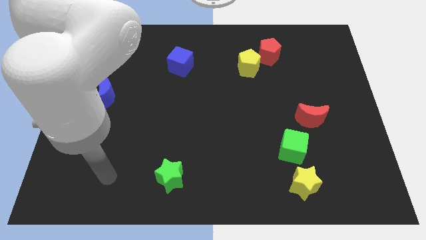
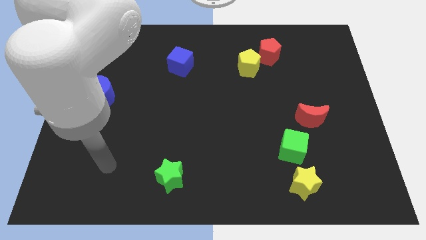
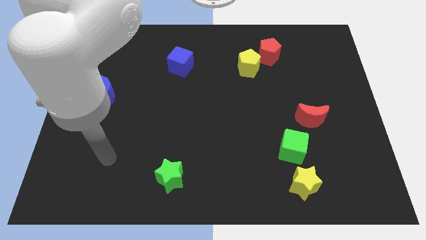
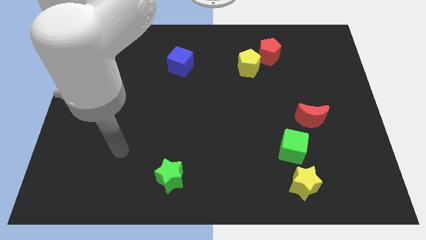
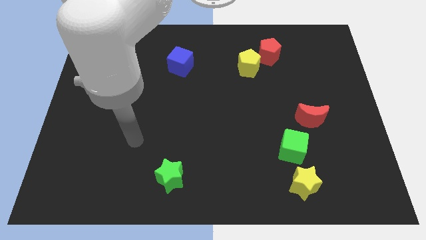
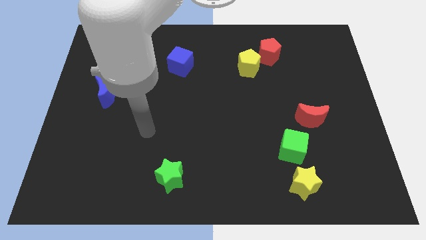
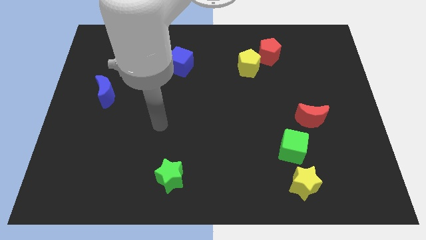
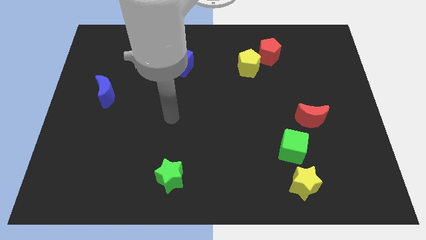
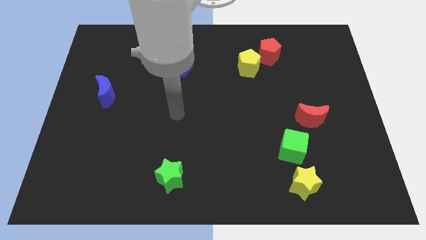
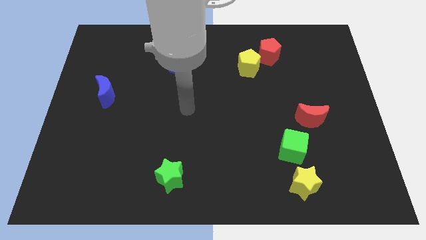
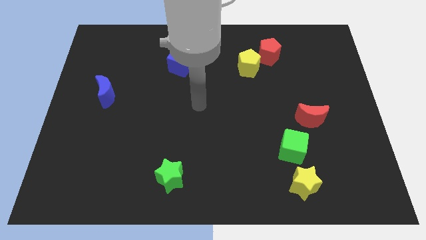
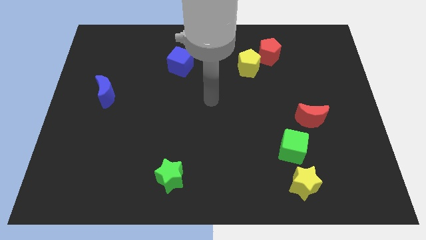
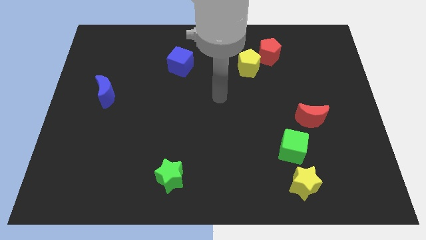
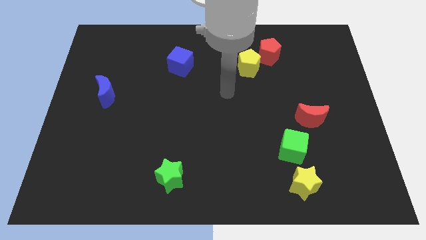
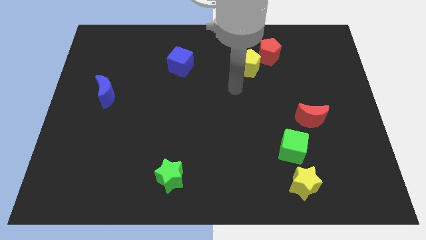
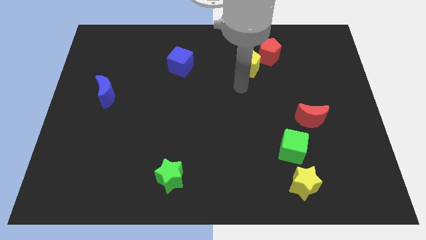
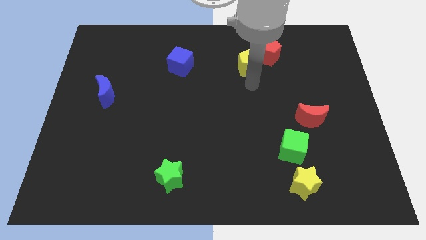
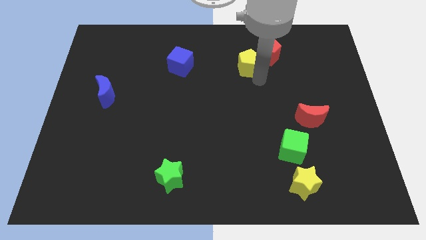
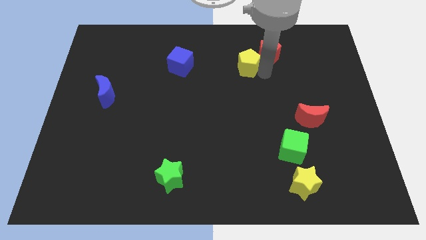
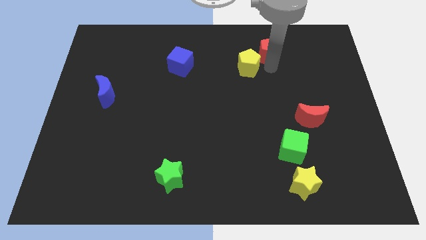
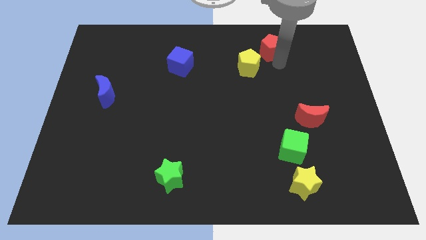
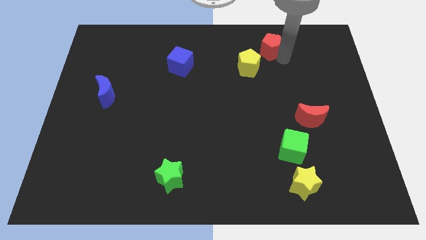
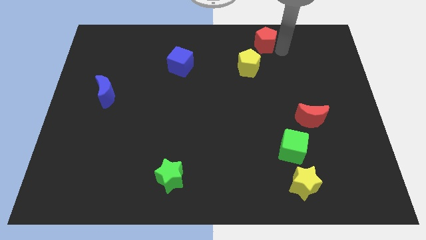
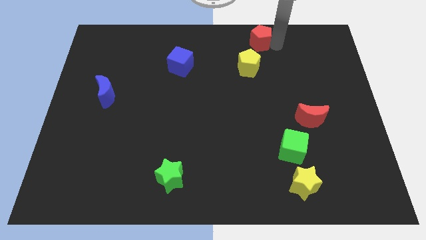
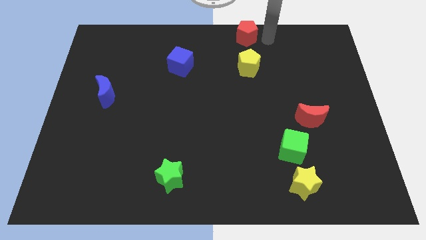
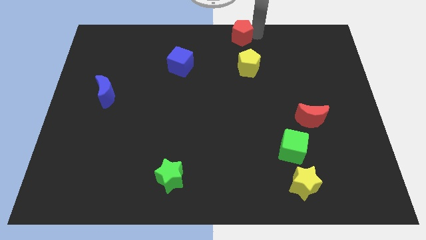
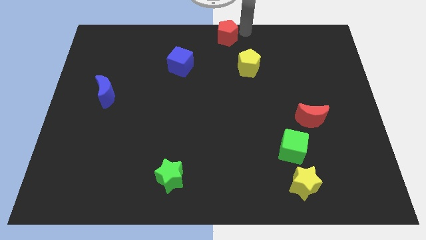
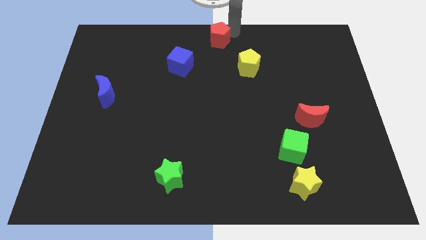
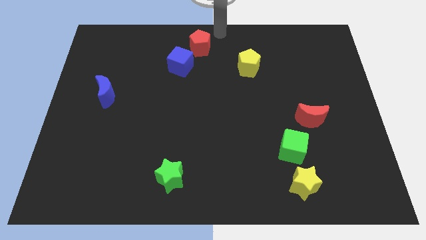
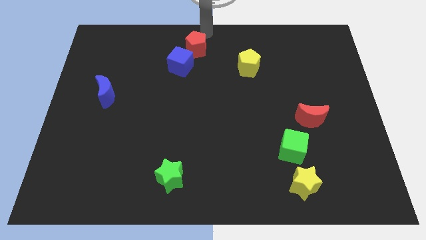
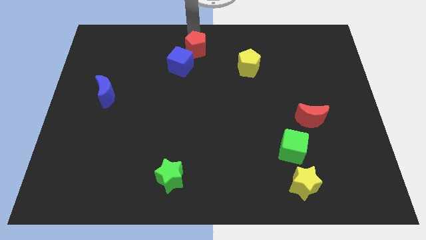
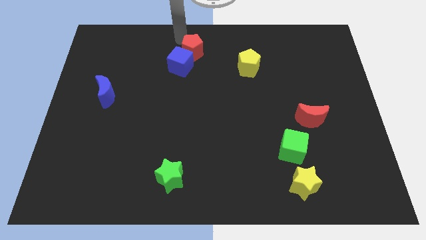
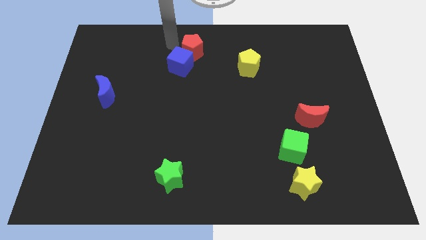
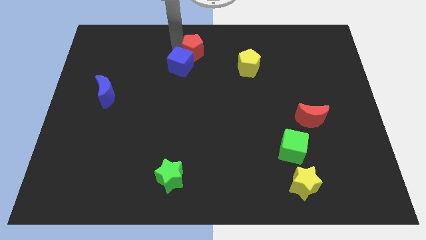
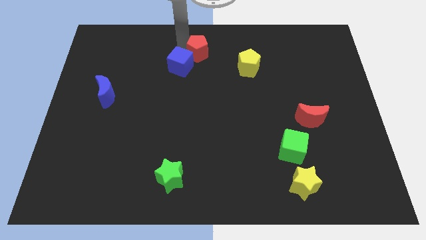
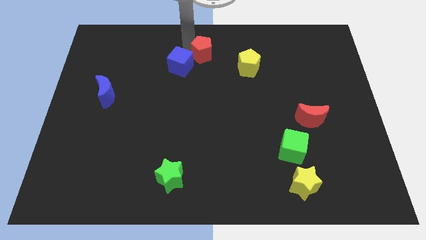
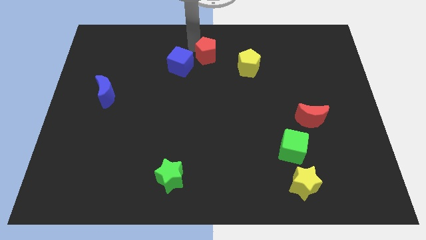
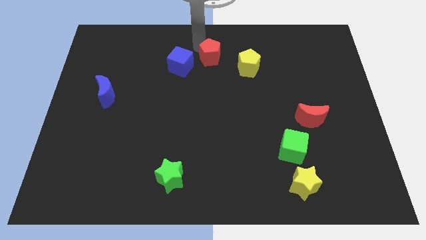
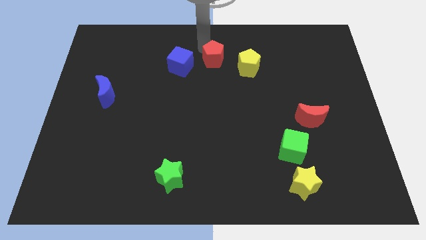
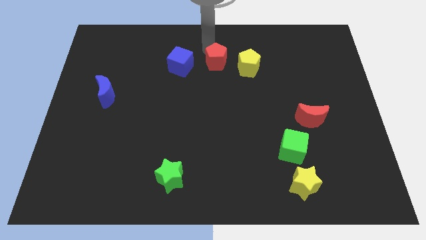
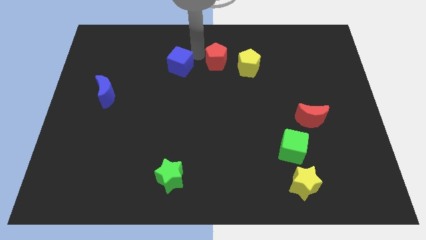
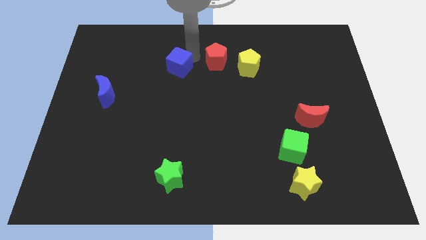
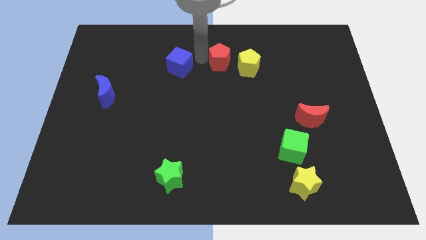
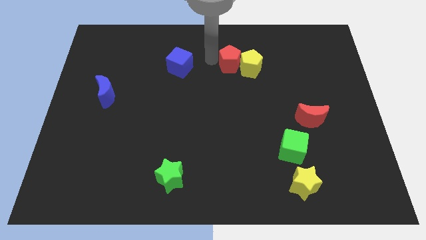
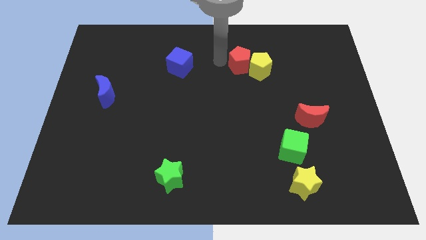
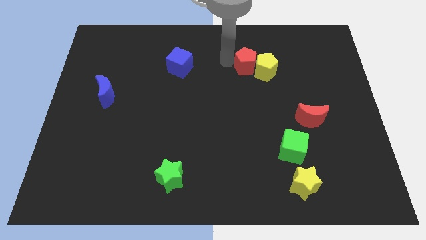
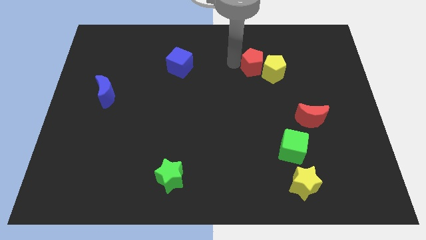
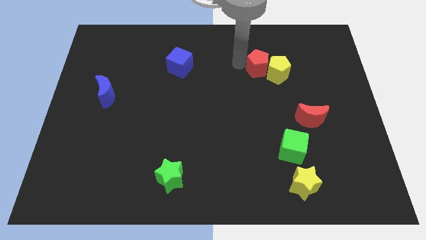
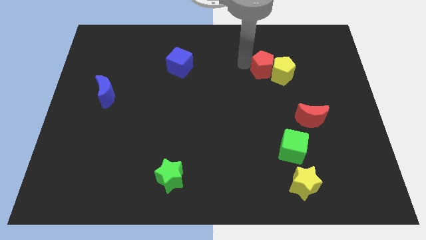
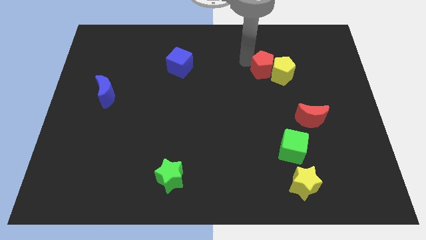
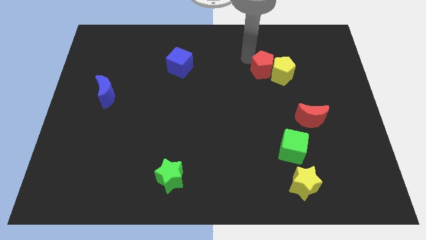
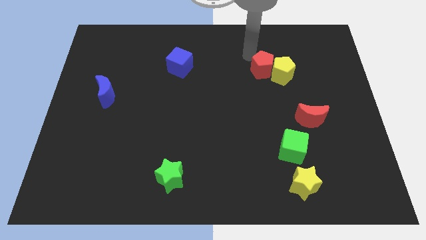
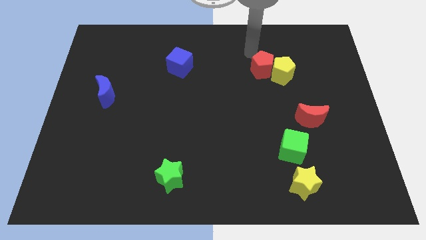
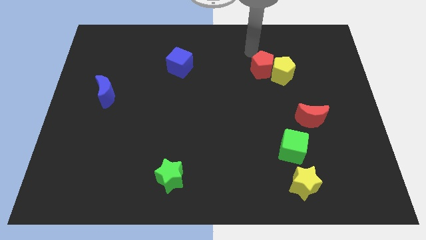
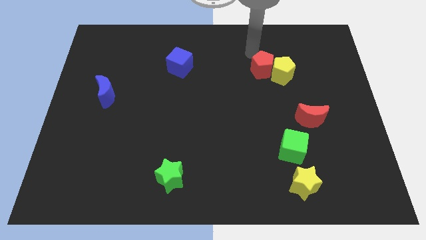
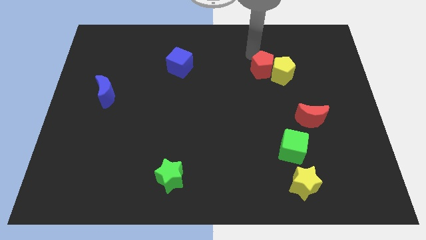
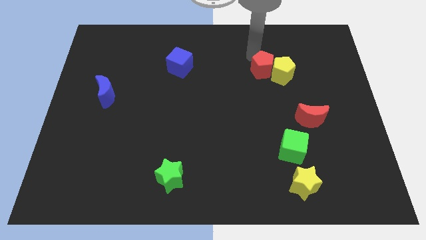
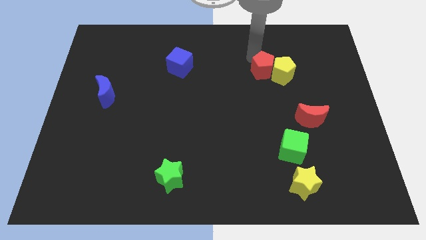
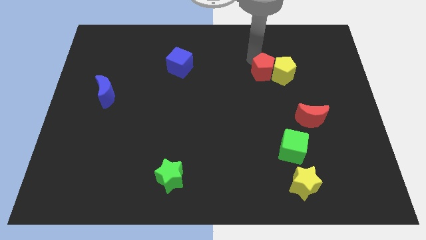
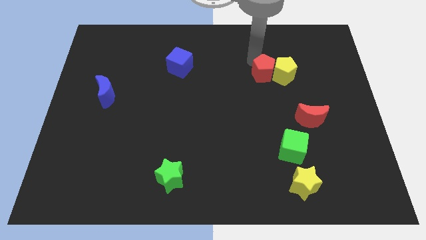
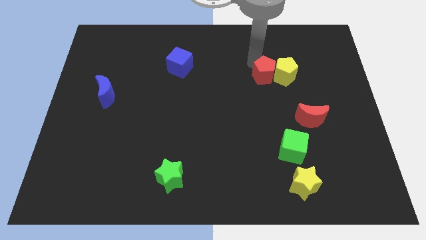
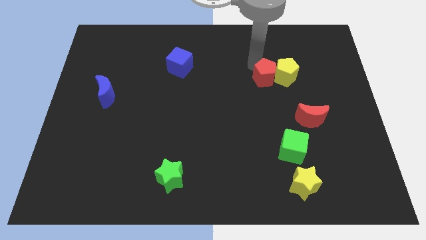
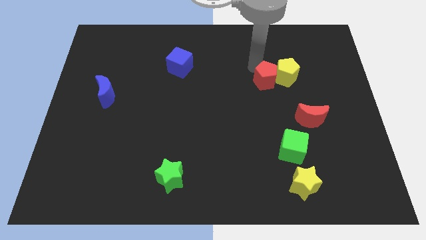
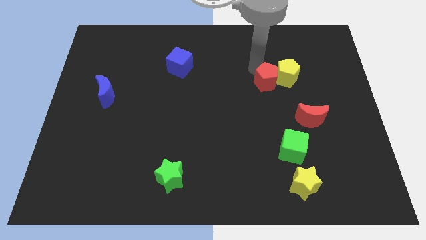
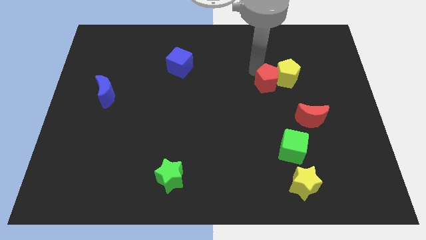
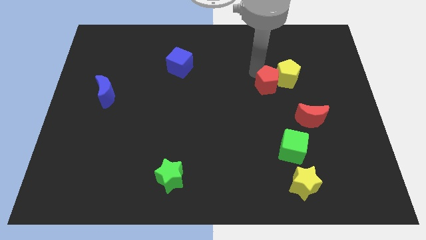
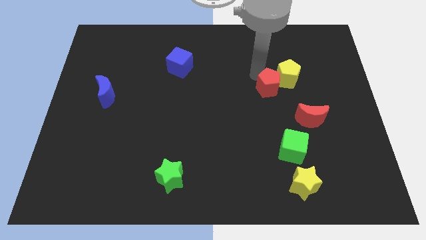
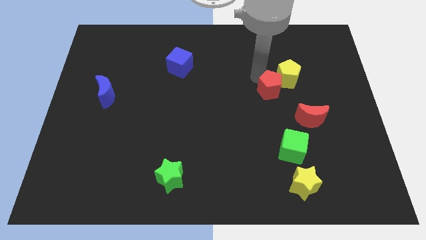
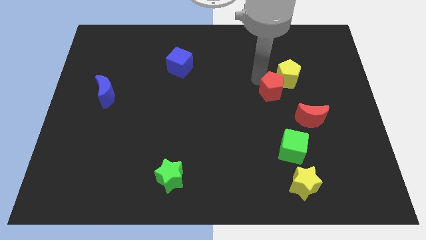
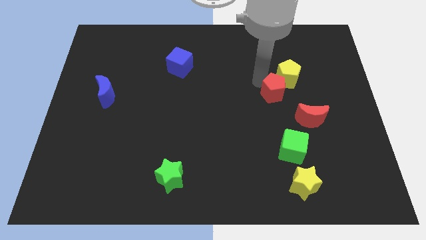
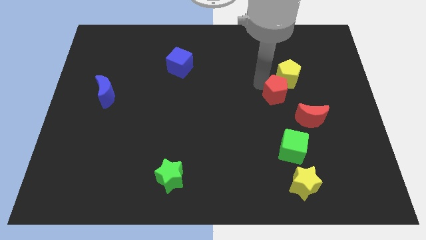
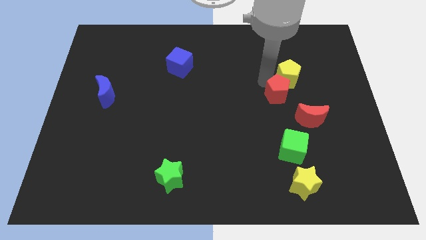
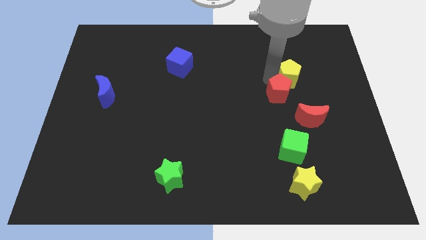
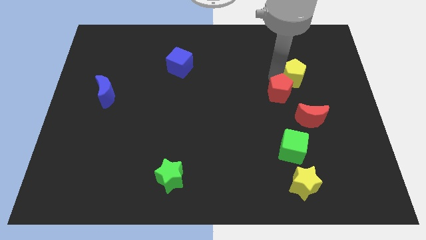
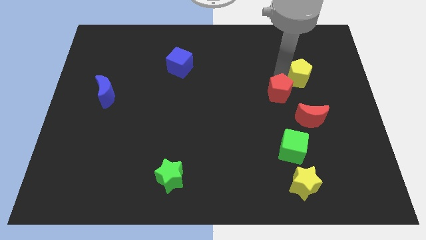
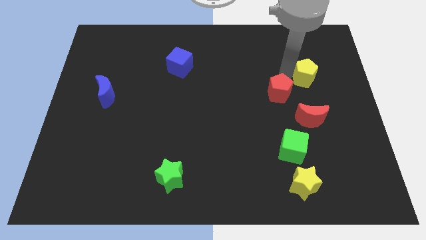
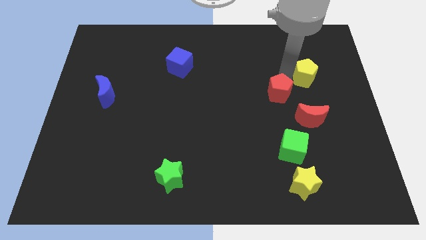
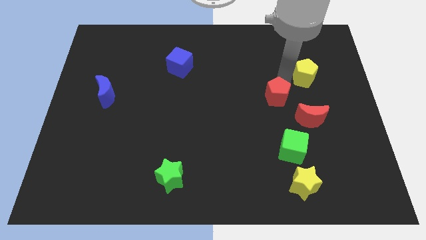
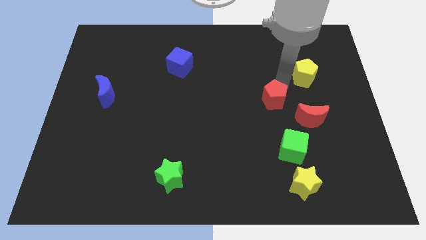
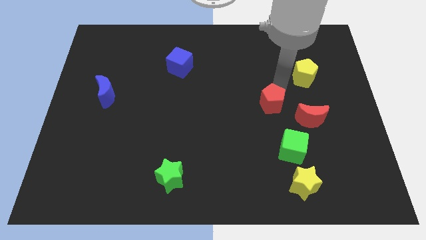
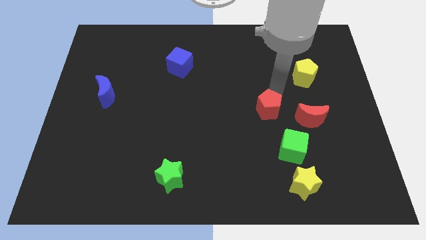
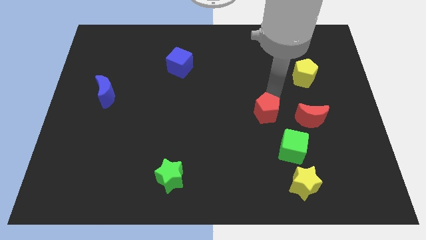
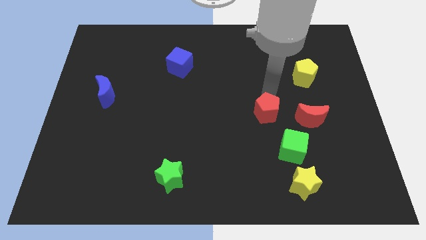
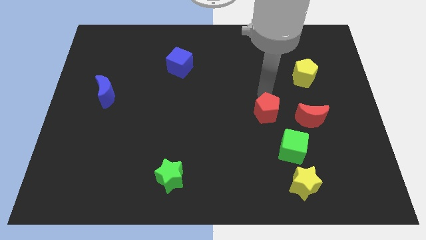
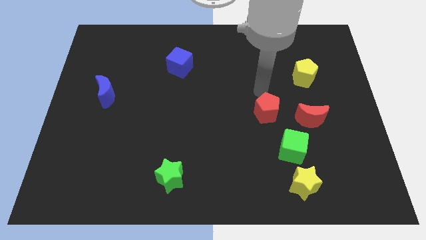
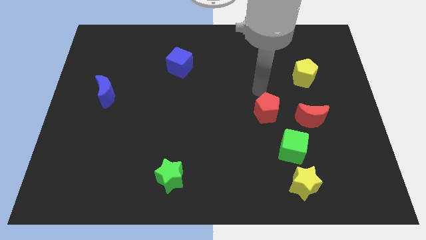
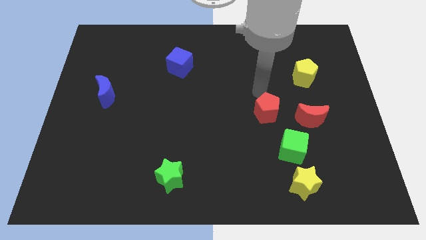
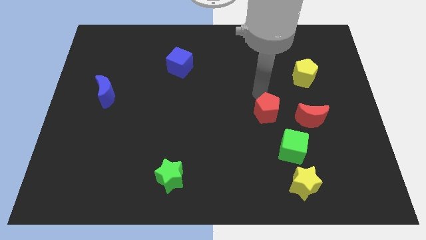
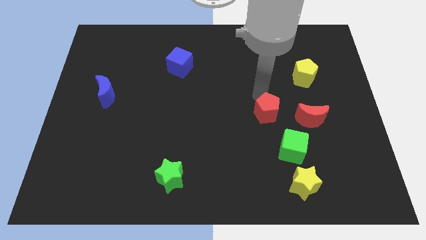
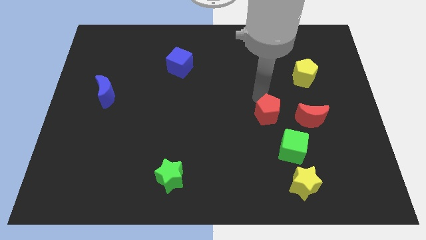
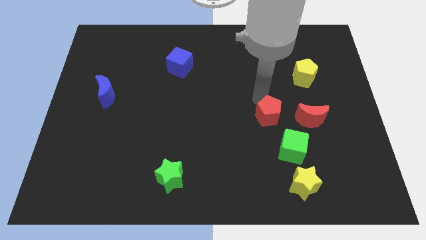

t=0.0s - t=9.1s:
move the red pentagon down
